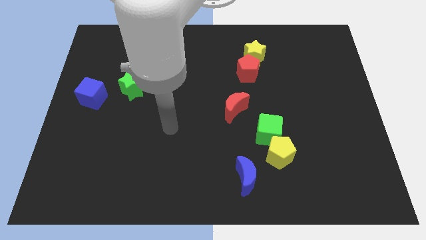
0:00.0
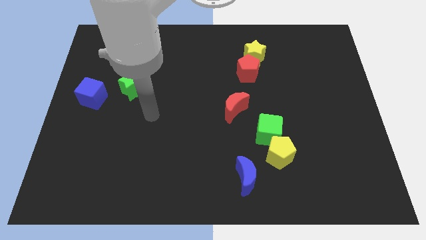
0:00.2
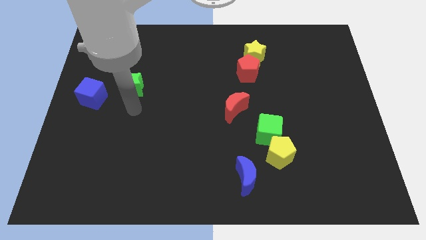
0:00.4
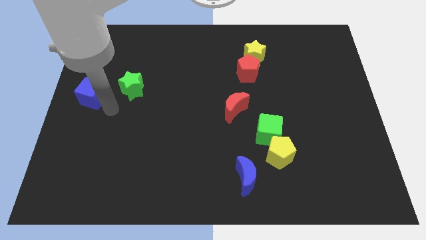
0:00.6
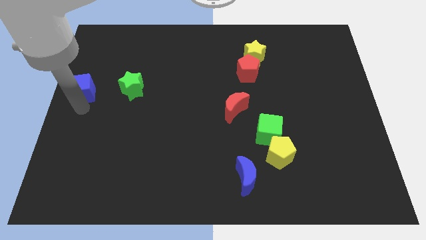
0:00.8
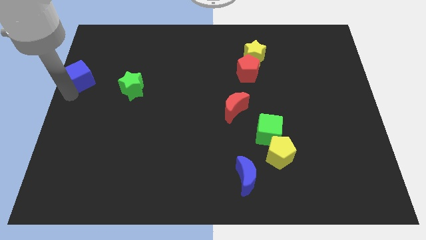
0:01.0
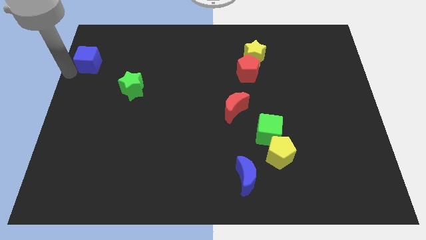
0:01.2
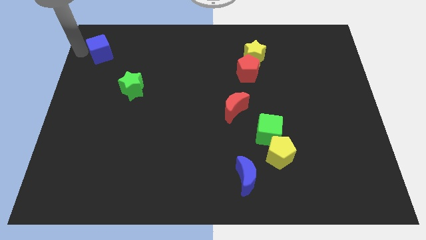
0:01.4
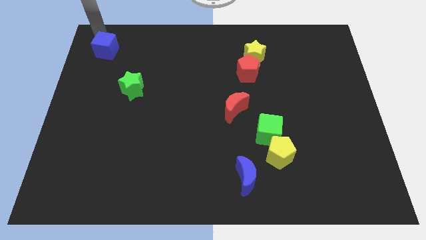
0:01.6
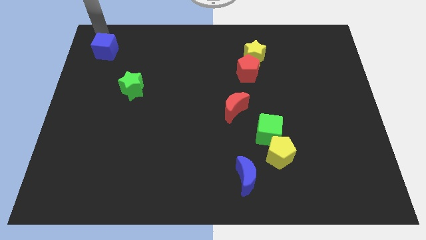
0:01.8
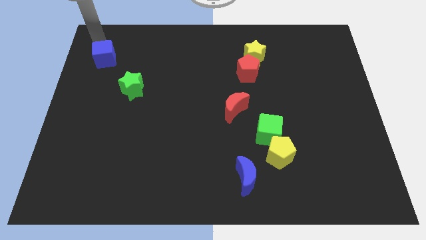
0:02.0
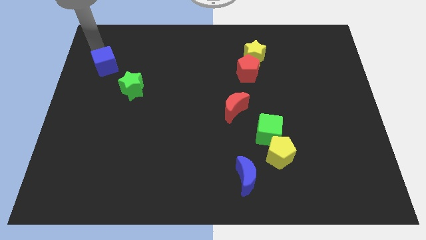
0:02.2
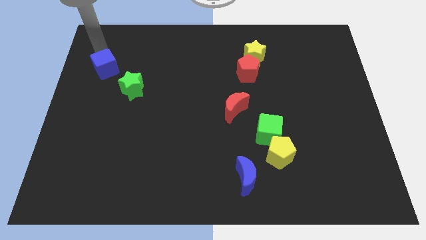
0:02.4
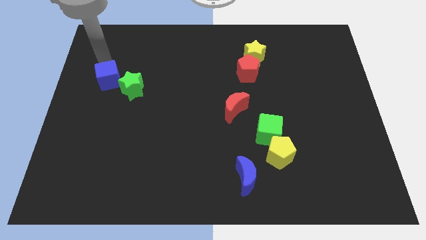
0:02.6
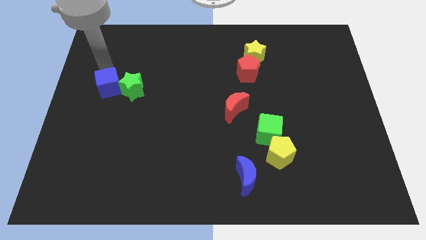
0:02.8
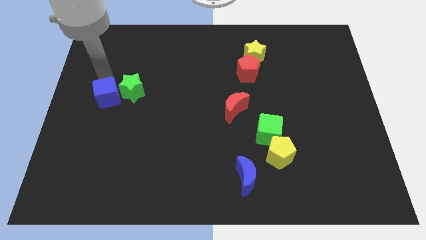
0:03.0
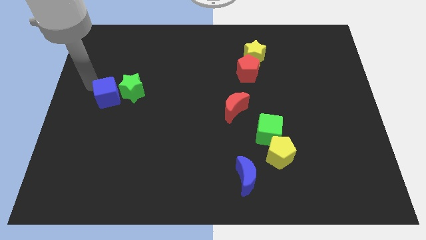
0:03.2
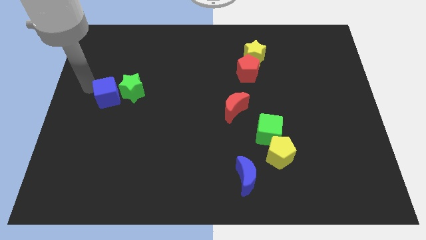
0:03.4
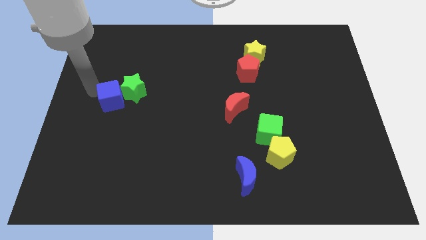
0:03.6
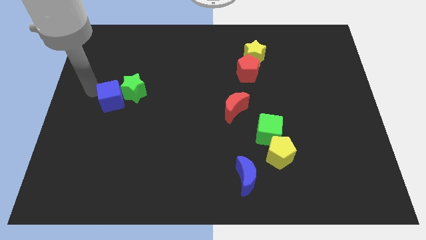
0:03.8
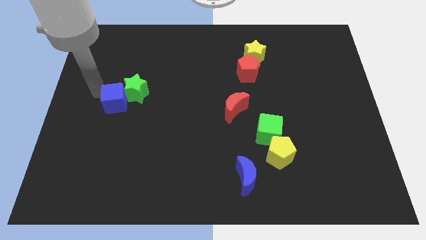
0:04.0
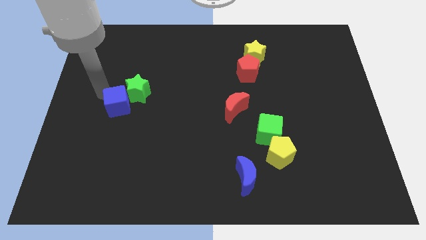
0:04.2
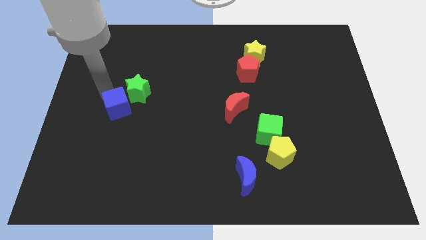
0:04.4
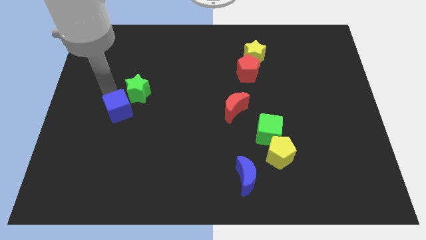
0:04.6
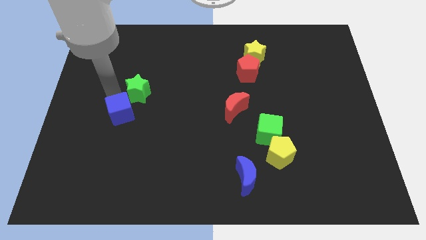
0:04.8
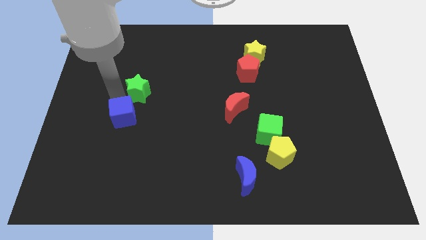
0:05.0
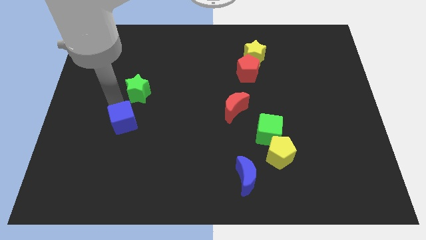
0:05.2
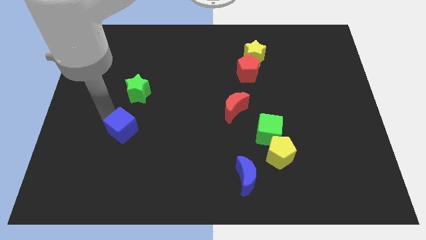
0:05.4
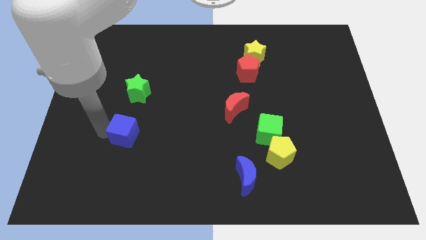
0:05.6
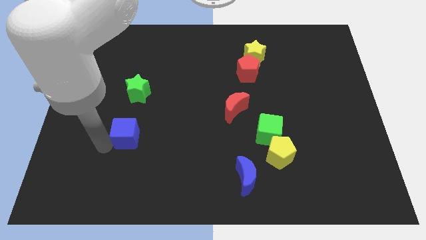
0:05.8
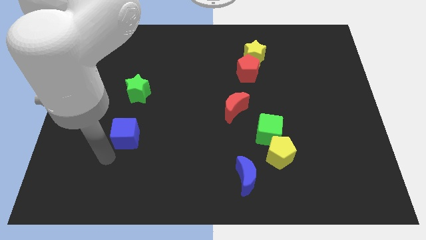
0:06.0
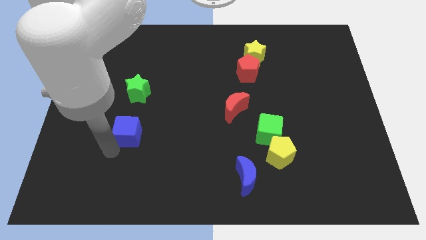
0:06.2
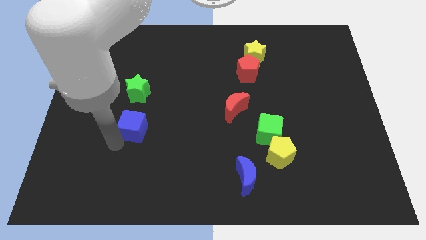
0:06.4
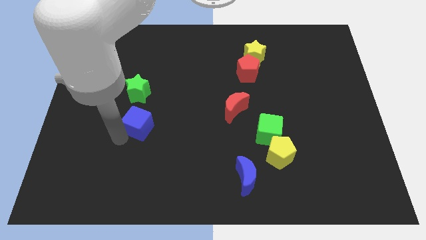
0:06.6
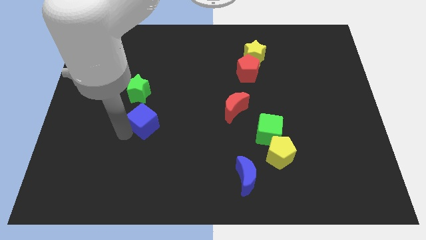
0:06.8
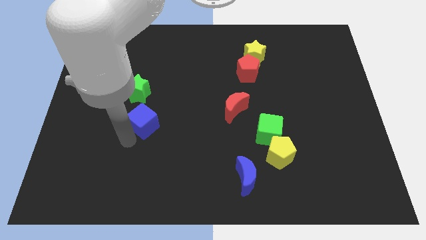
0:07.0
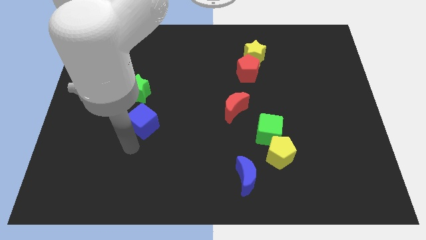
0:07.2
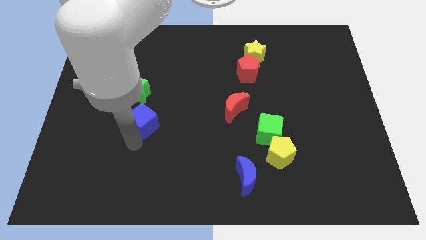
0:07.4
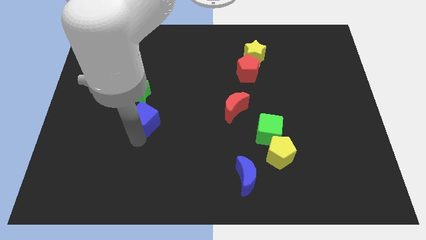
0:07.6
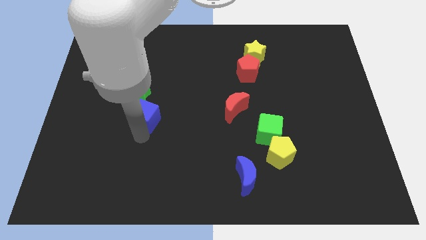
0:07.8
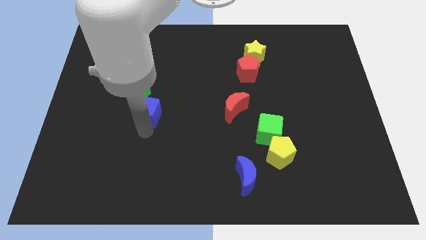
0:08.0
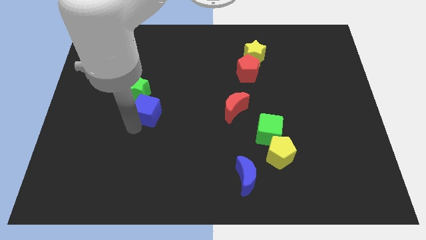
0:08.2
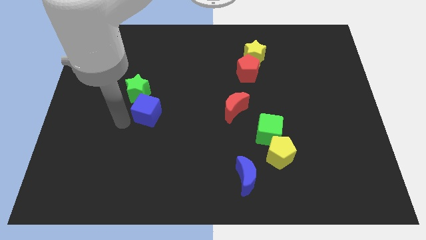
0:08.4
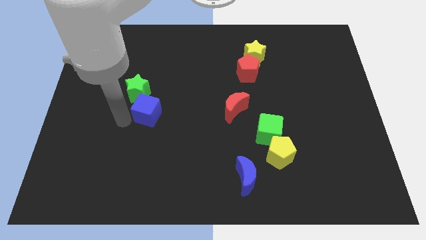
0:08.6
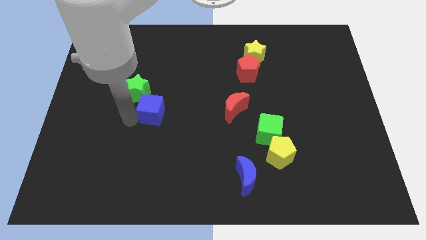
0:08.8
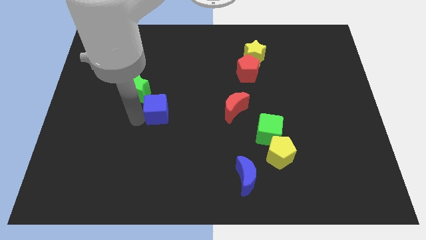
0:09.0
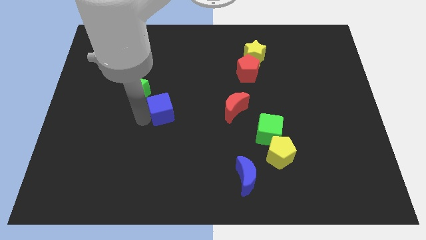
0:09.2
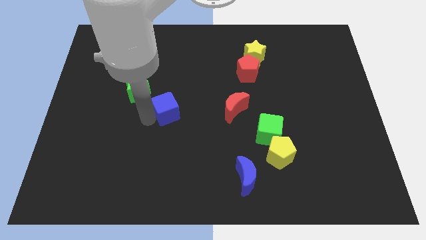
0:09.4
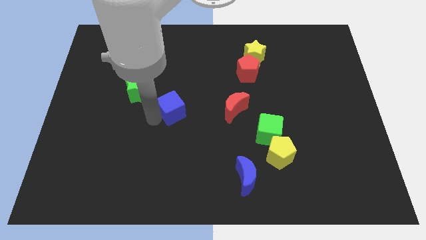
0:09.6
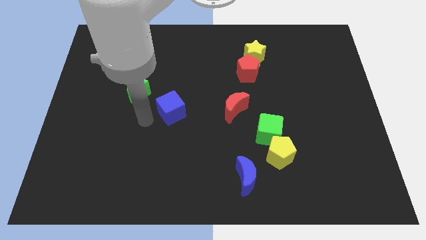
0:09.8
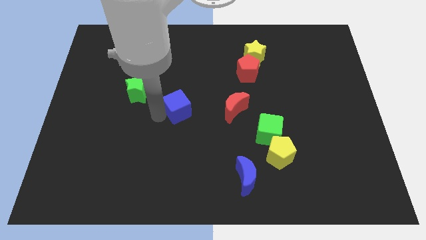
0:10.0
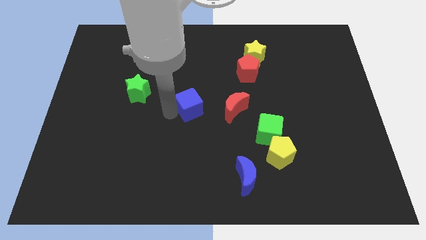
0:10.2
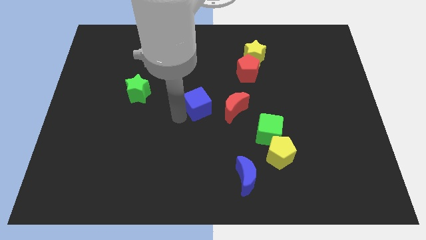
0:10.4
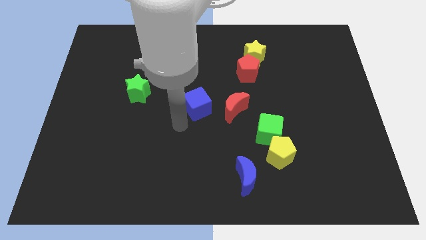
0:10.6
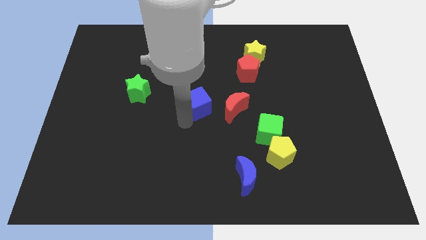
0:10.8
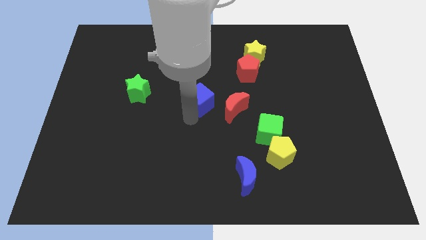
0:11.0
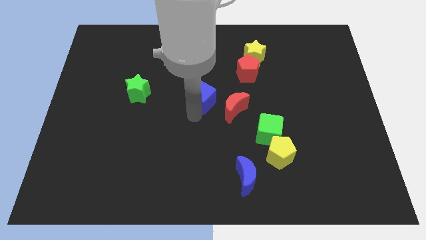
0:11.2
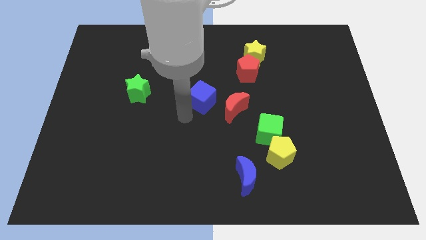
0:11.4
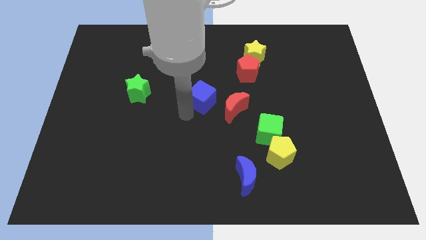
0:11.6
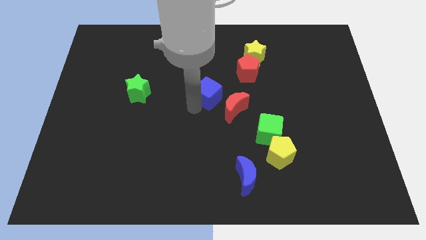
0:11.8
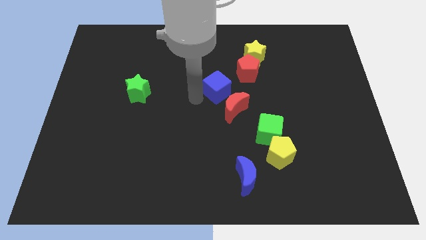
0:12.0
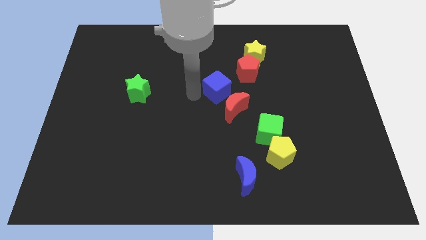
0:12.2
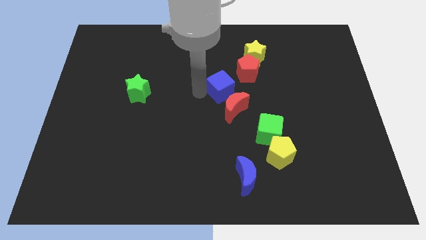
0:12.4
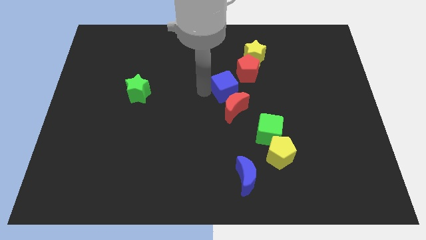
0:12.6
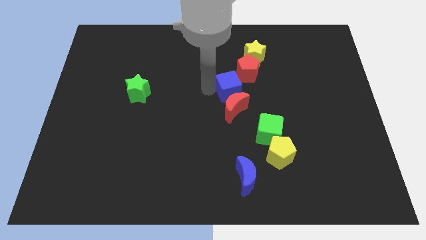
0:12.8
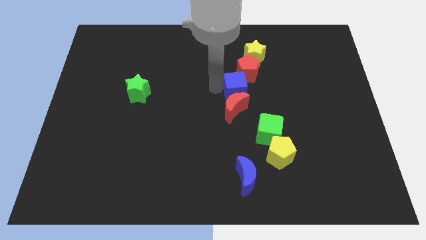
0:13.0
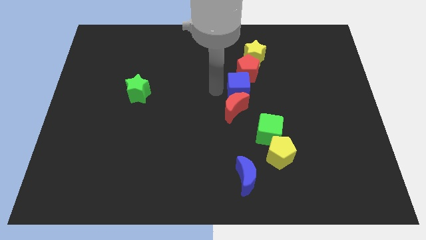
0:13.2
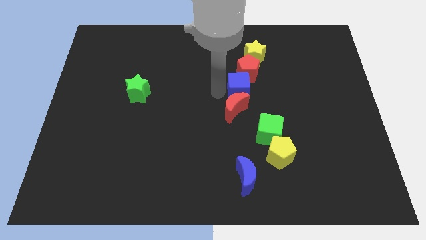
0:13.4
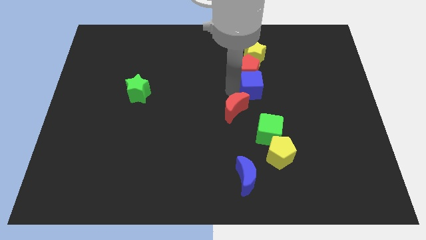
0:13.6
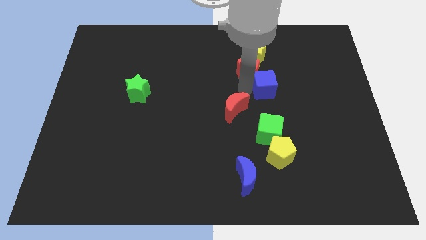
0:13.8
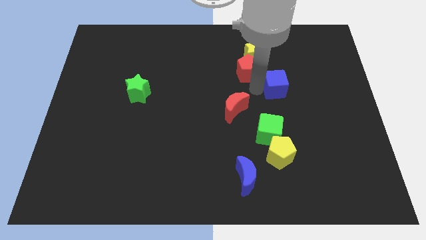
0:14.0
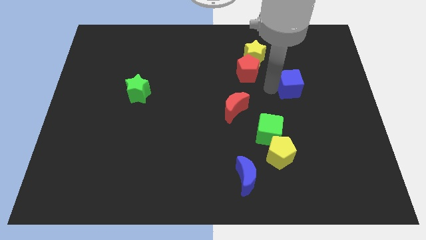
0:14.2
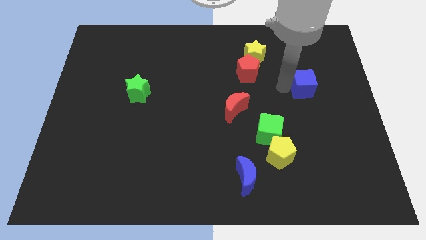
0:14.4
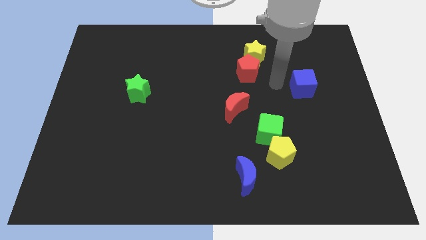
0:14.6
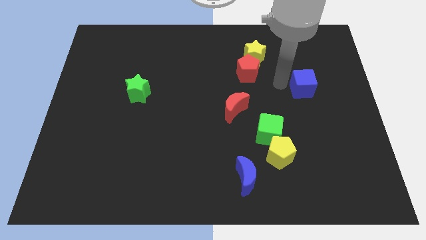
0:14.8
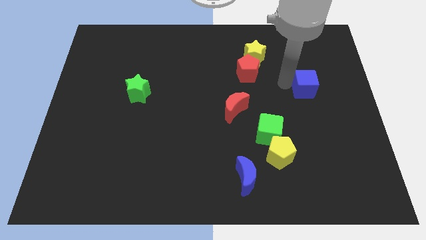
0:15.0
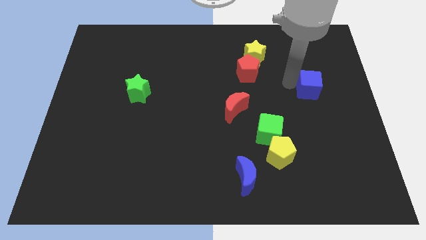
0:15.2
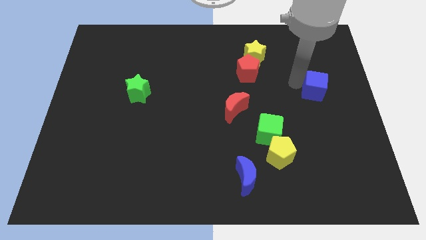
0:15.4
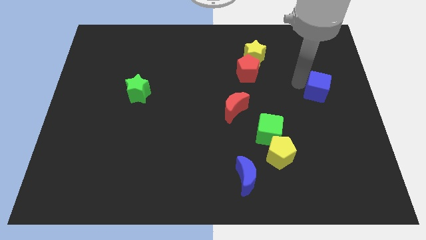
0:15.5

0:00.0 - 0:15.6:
slide the blue cube to the right side of the board
